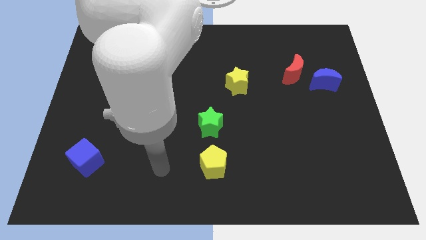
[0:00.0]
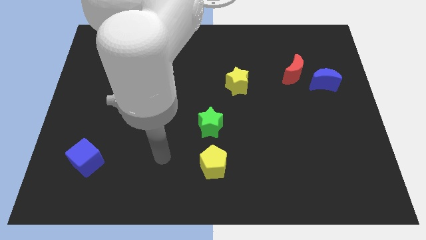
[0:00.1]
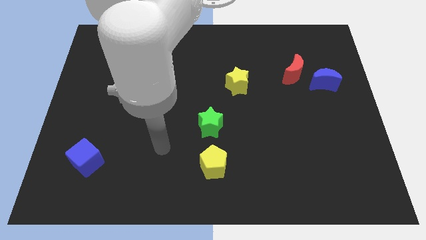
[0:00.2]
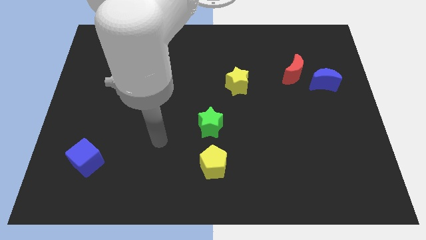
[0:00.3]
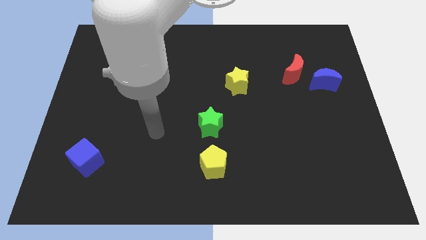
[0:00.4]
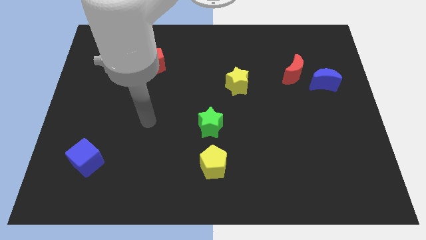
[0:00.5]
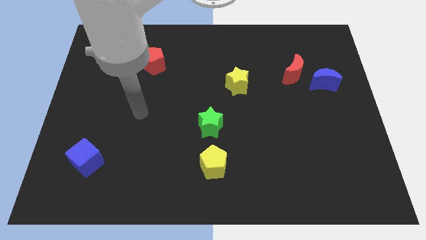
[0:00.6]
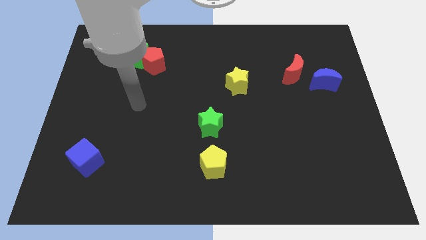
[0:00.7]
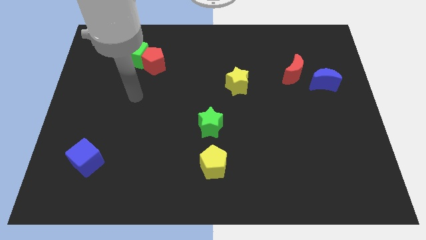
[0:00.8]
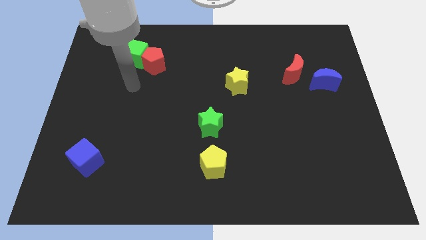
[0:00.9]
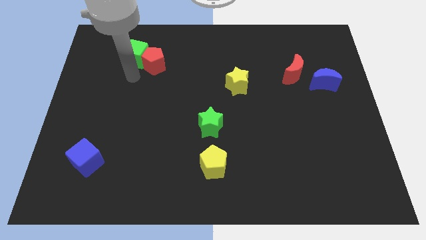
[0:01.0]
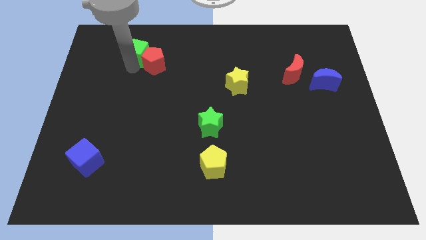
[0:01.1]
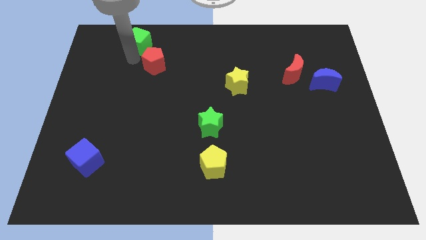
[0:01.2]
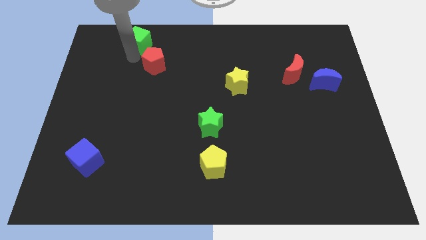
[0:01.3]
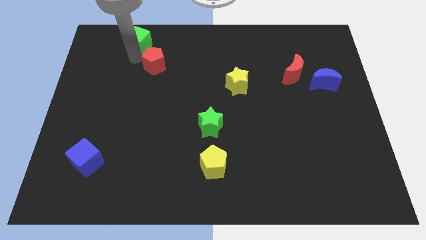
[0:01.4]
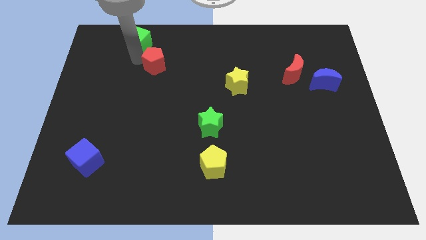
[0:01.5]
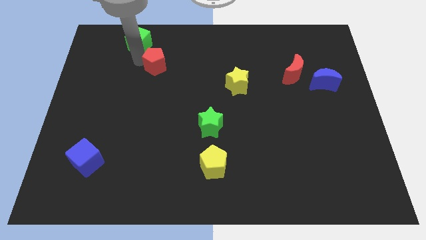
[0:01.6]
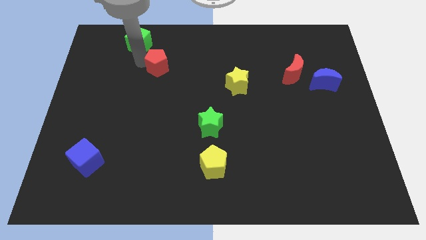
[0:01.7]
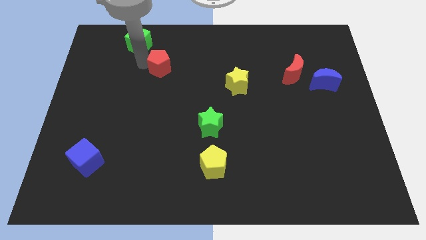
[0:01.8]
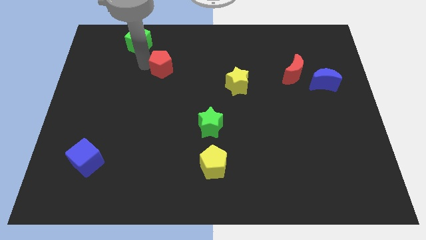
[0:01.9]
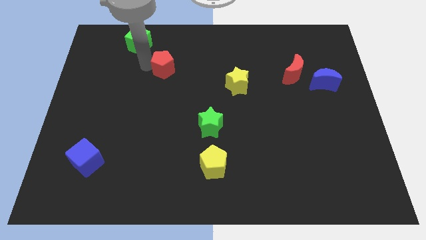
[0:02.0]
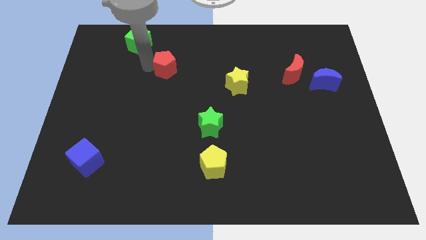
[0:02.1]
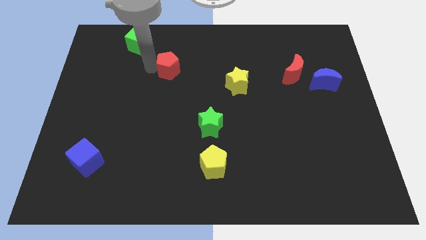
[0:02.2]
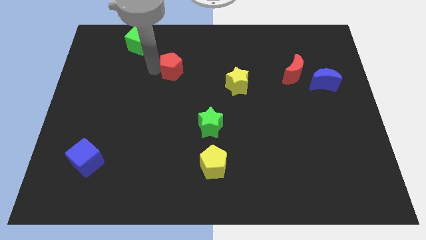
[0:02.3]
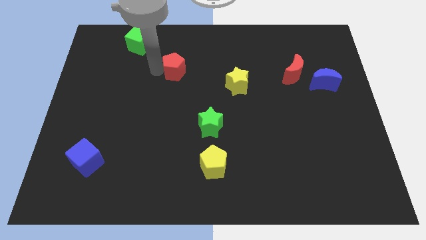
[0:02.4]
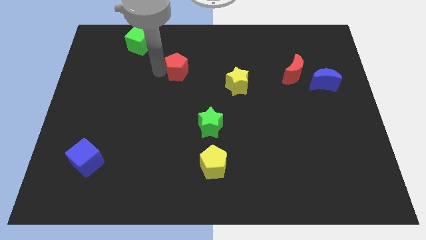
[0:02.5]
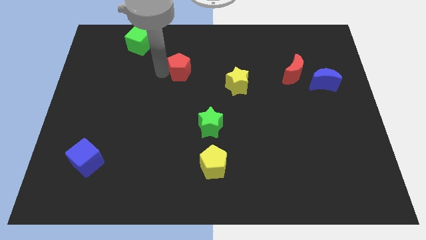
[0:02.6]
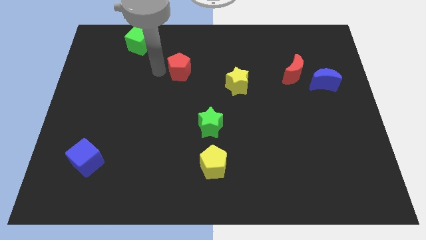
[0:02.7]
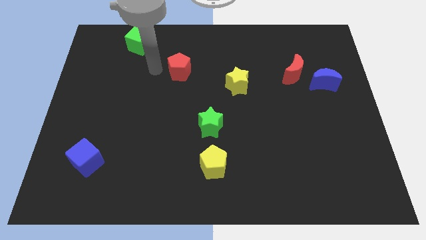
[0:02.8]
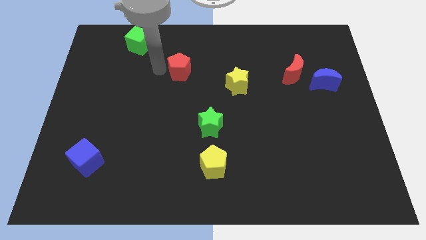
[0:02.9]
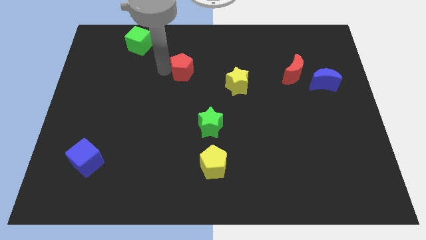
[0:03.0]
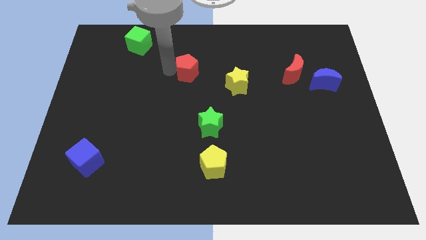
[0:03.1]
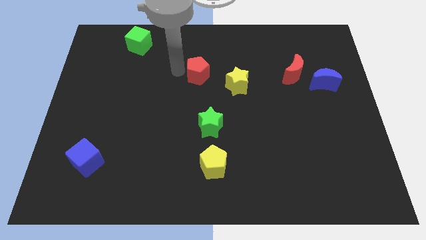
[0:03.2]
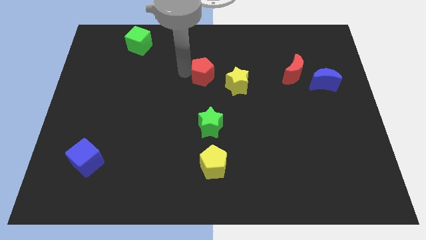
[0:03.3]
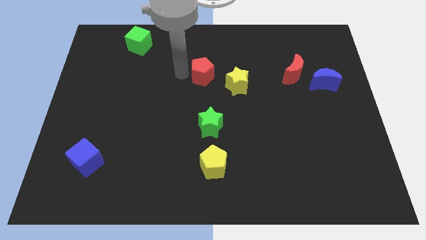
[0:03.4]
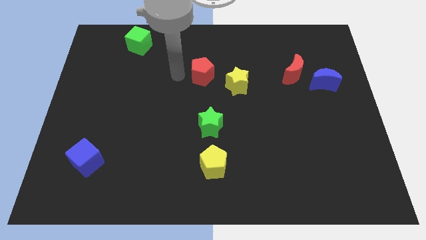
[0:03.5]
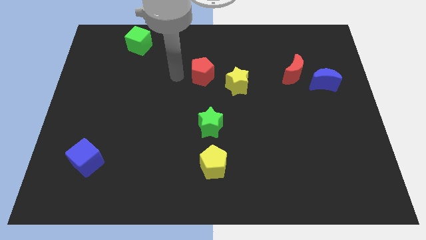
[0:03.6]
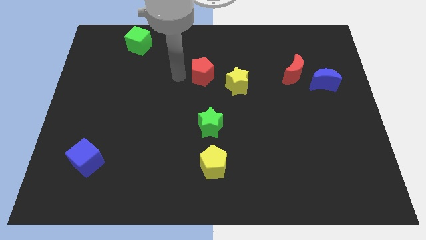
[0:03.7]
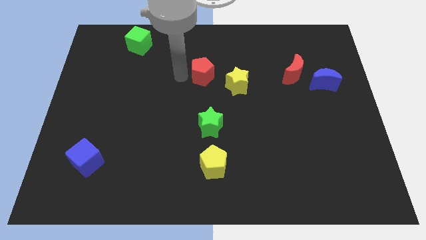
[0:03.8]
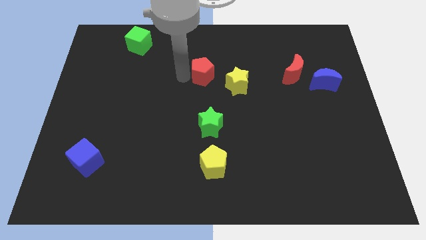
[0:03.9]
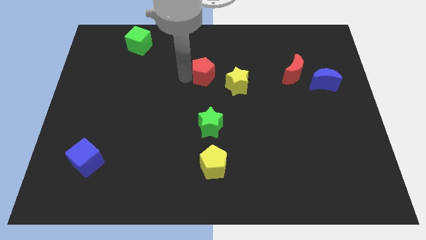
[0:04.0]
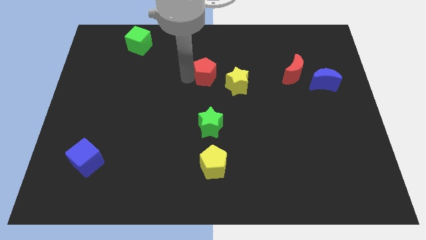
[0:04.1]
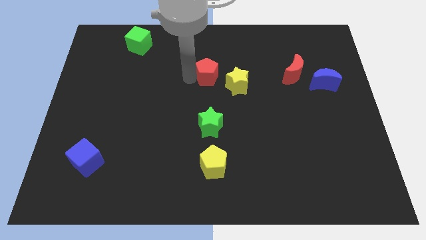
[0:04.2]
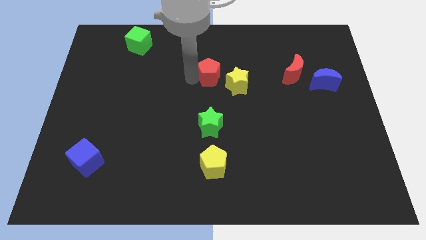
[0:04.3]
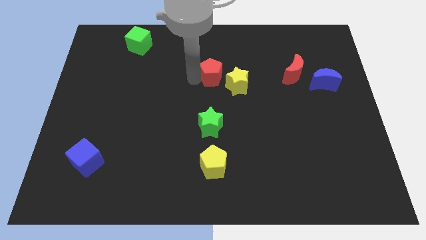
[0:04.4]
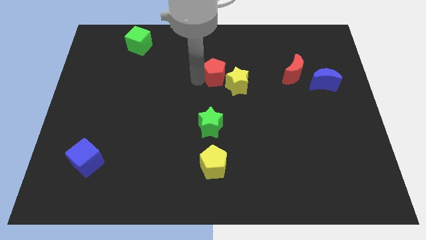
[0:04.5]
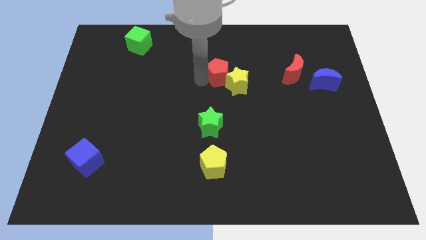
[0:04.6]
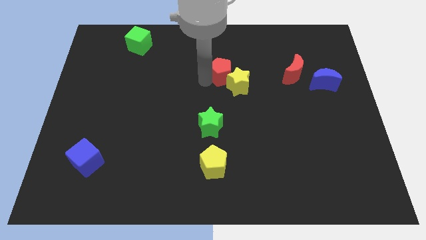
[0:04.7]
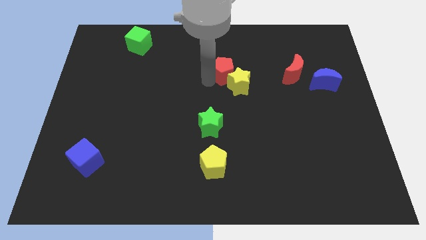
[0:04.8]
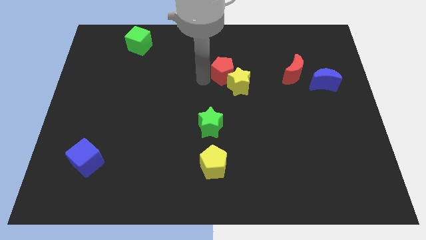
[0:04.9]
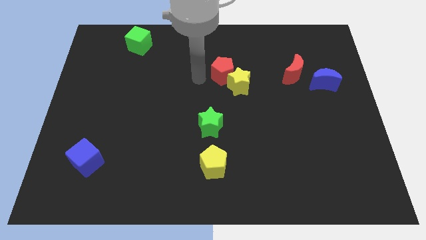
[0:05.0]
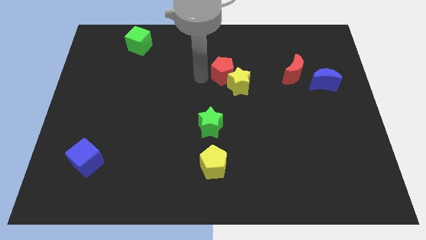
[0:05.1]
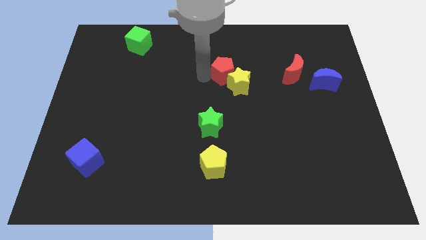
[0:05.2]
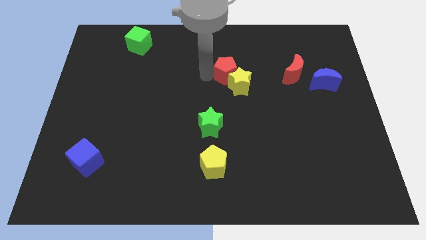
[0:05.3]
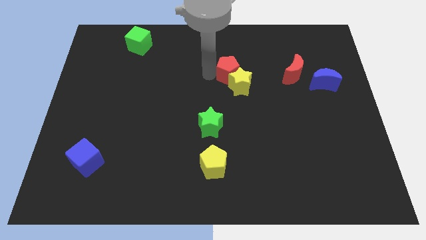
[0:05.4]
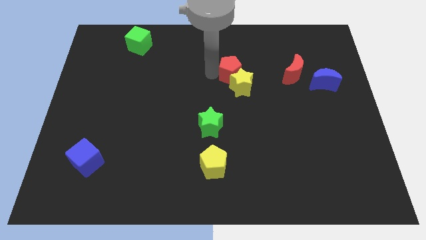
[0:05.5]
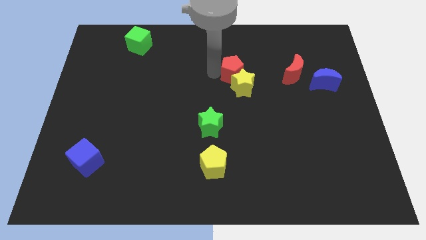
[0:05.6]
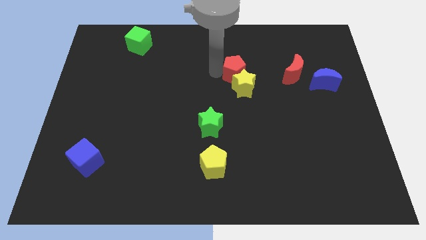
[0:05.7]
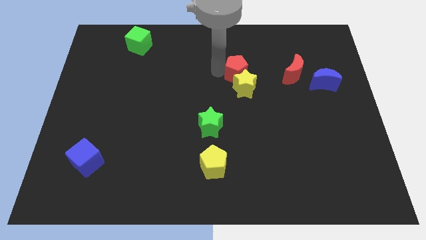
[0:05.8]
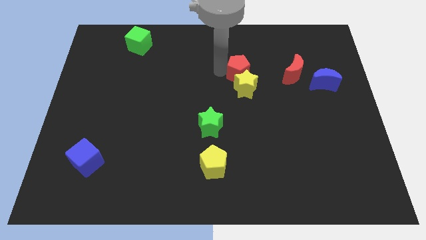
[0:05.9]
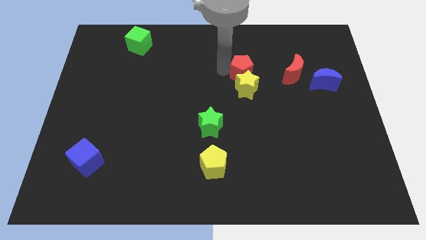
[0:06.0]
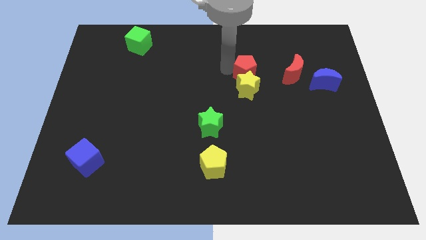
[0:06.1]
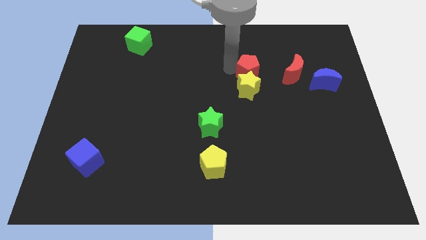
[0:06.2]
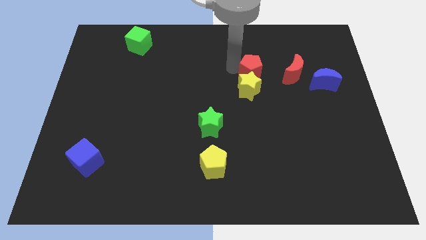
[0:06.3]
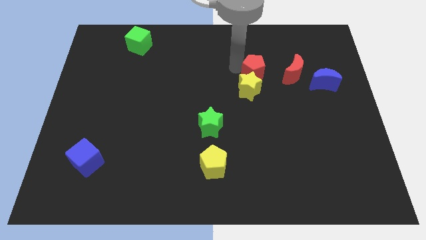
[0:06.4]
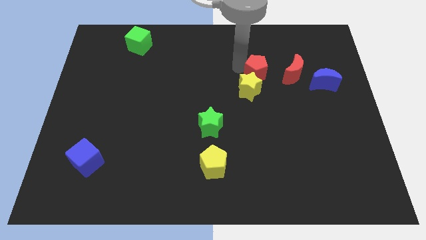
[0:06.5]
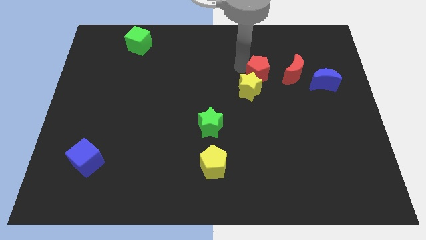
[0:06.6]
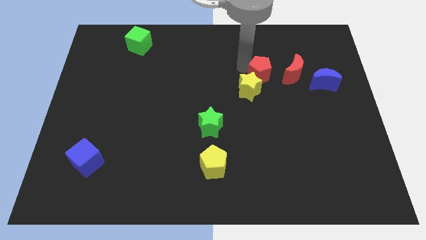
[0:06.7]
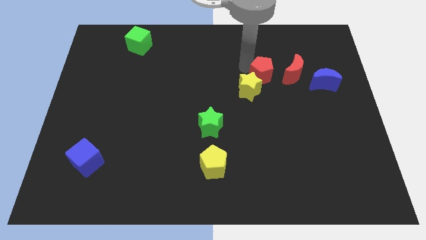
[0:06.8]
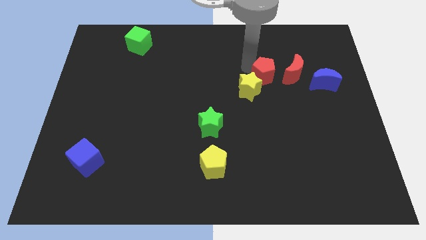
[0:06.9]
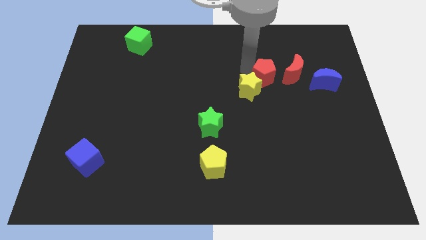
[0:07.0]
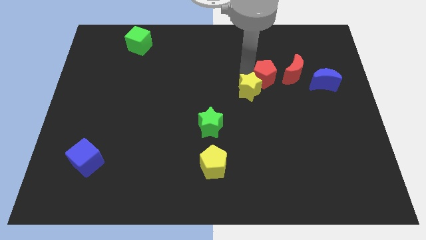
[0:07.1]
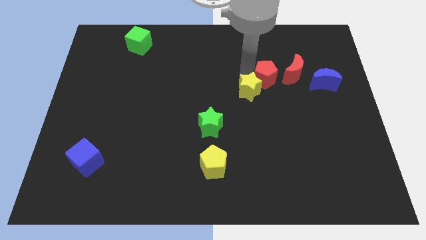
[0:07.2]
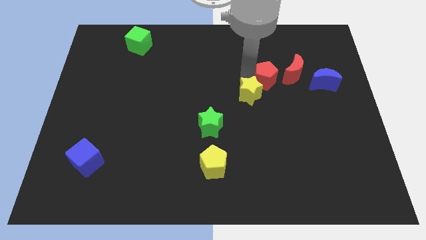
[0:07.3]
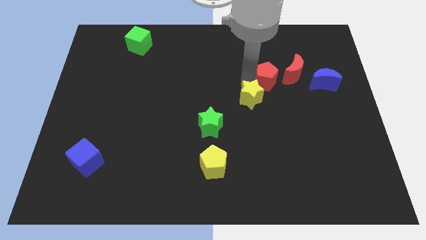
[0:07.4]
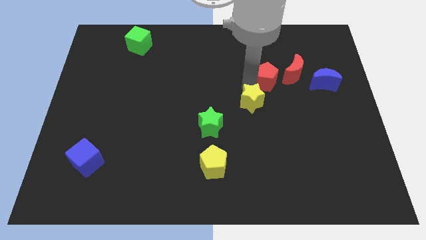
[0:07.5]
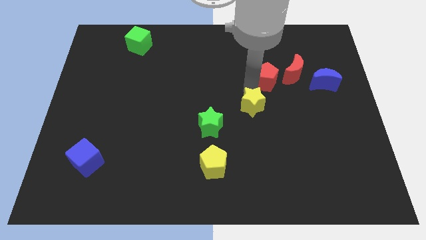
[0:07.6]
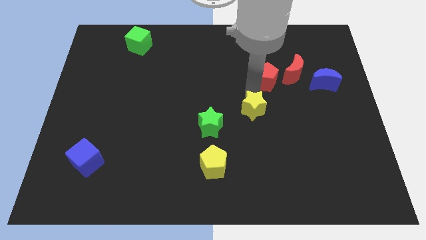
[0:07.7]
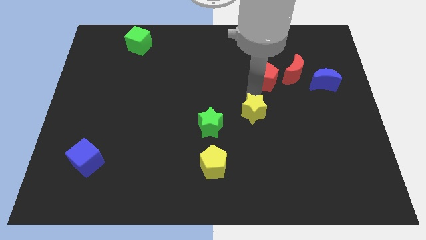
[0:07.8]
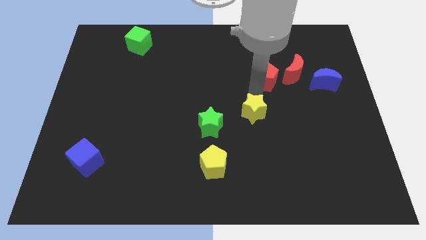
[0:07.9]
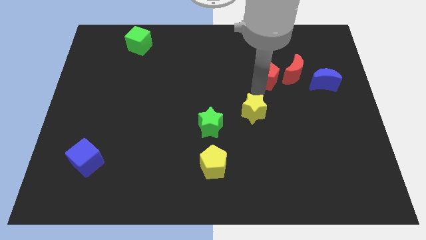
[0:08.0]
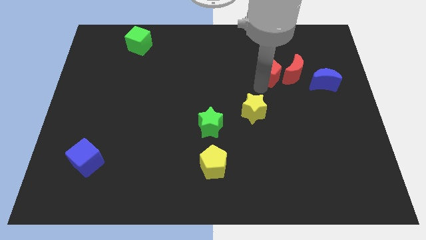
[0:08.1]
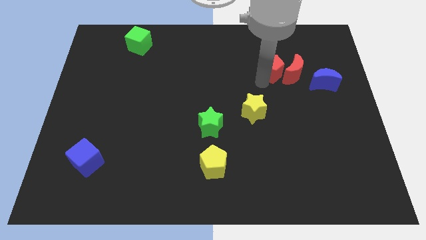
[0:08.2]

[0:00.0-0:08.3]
put the red pentagon to the red moon
